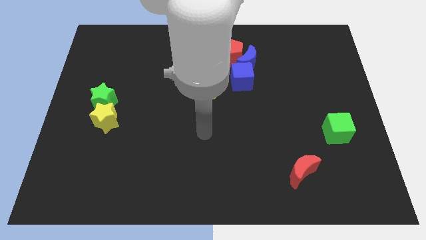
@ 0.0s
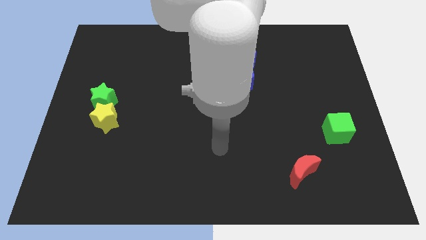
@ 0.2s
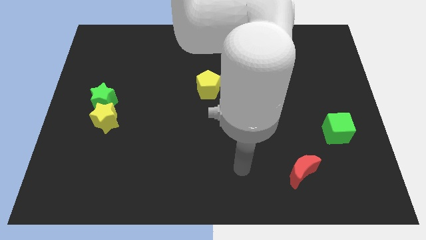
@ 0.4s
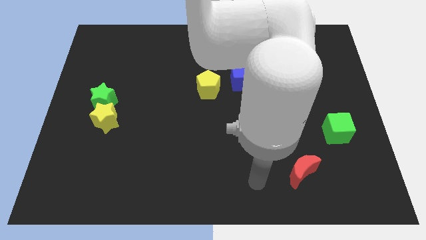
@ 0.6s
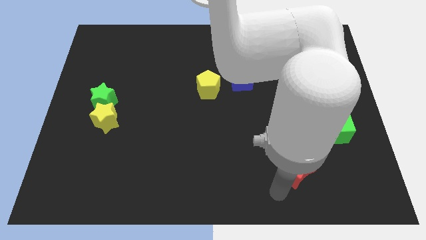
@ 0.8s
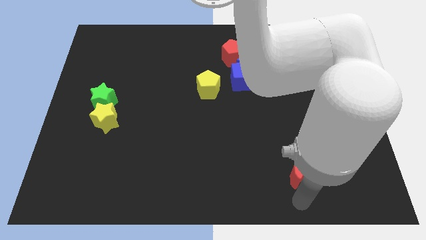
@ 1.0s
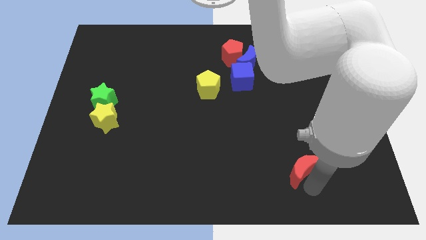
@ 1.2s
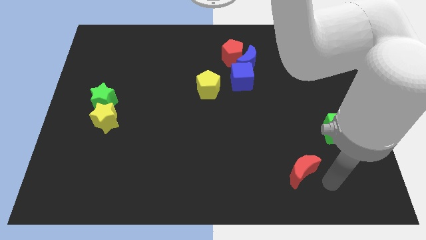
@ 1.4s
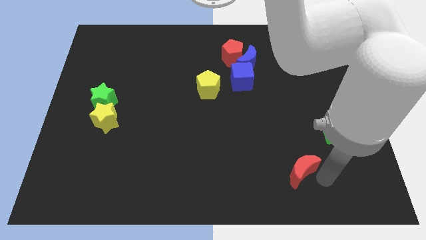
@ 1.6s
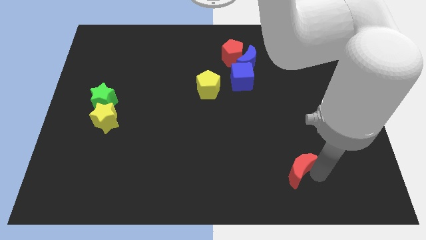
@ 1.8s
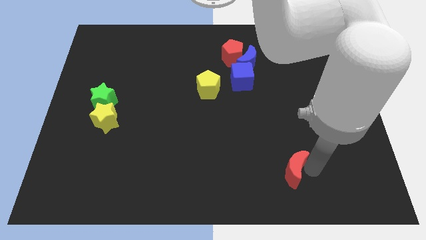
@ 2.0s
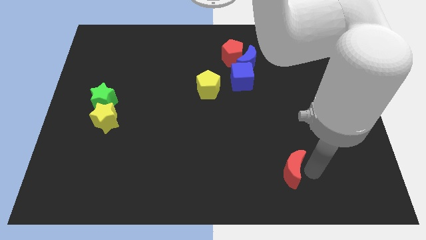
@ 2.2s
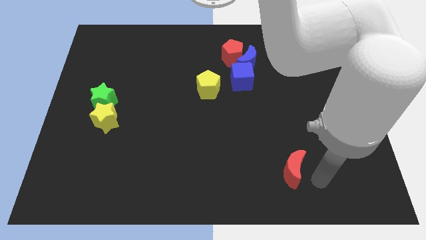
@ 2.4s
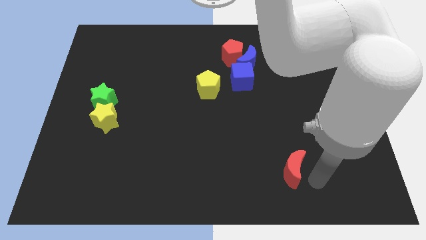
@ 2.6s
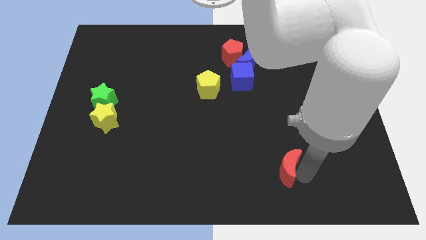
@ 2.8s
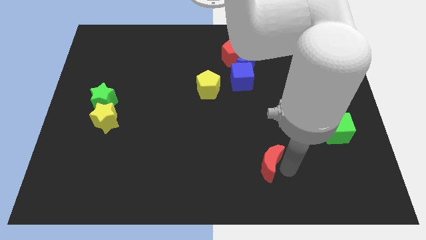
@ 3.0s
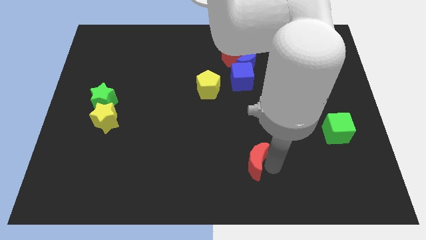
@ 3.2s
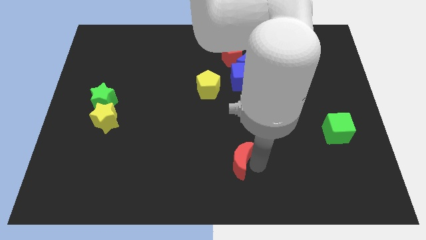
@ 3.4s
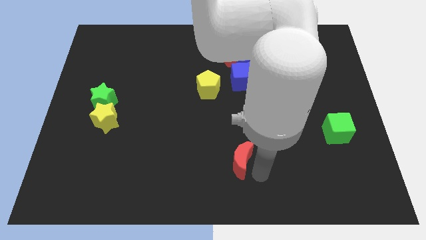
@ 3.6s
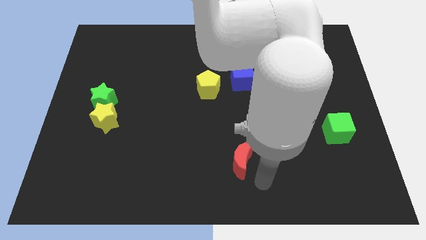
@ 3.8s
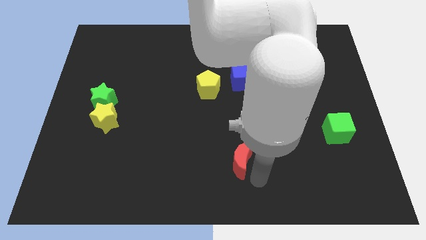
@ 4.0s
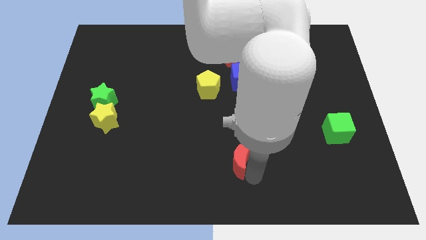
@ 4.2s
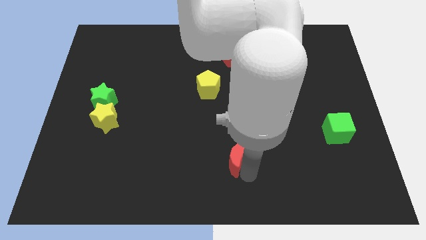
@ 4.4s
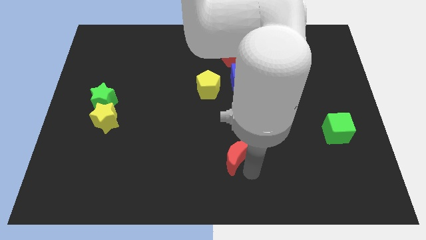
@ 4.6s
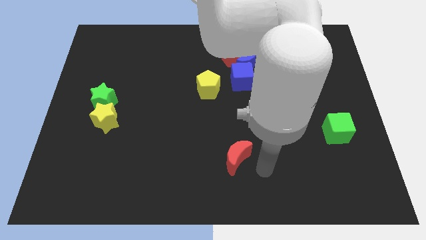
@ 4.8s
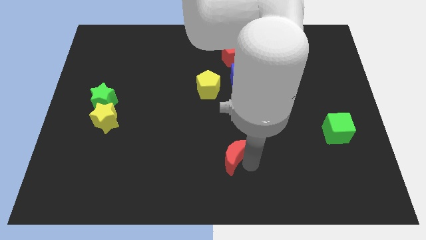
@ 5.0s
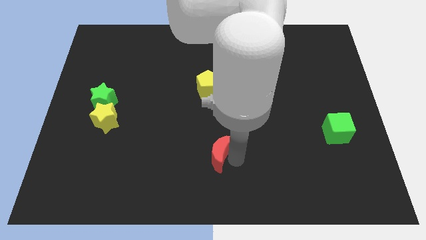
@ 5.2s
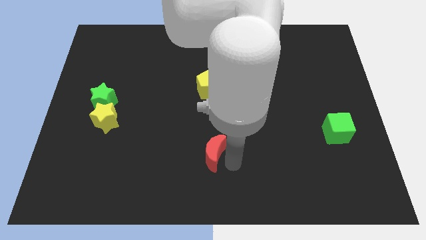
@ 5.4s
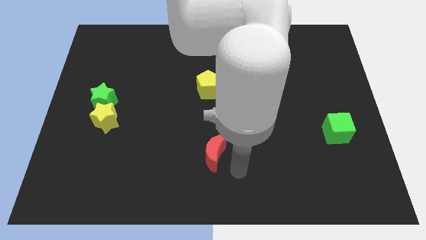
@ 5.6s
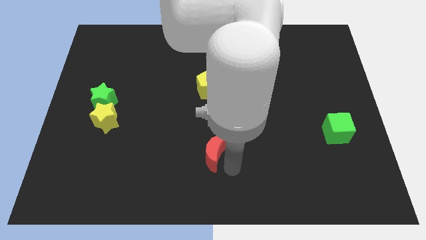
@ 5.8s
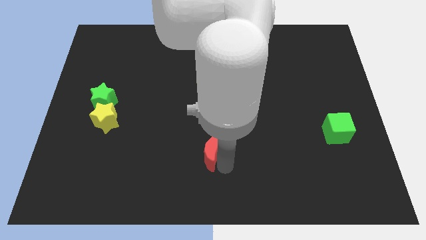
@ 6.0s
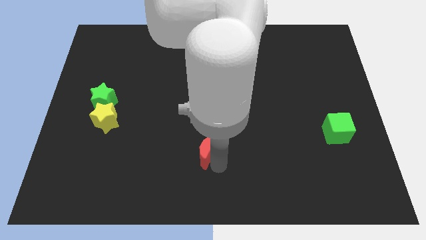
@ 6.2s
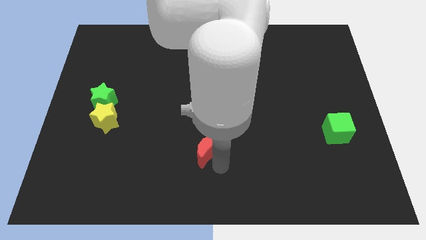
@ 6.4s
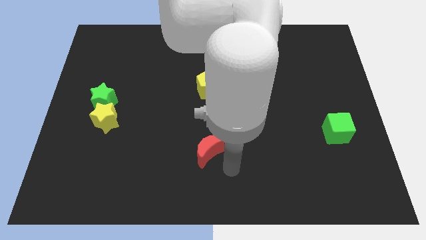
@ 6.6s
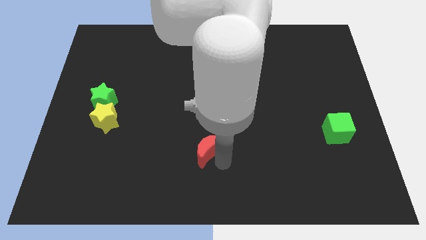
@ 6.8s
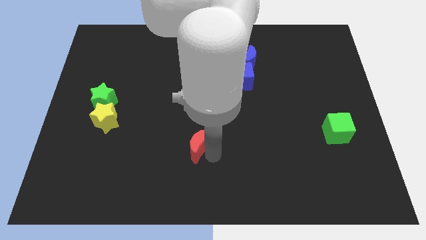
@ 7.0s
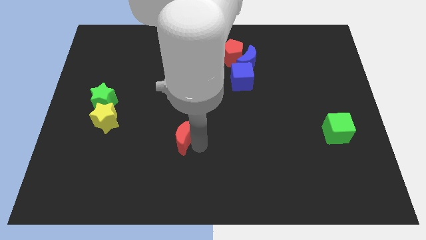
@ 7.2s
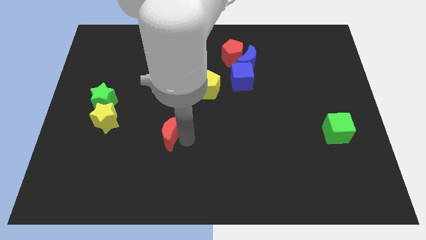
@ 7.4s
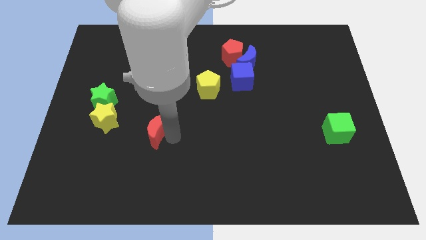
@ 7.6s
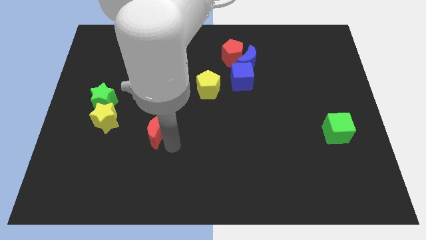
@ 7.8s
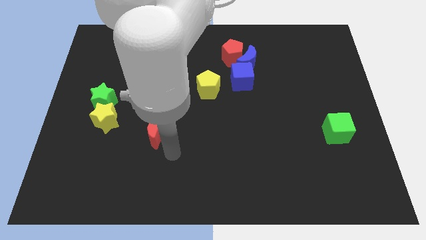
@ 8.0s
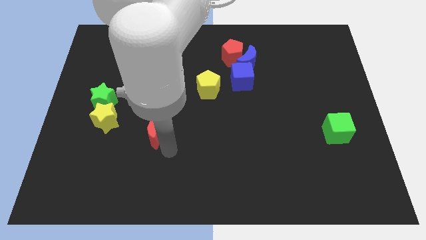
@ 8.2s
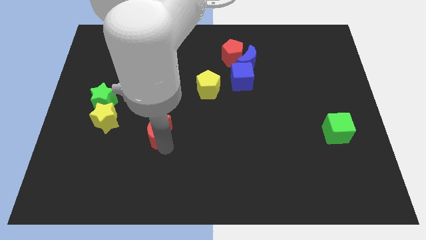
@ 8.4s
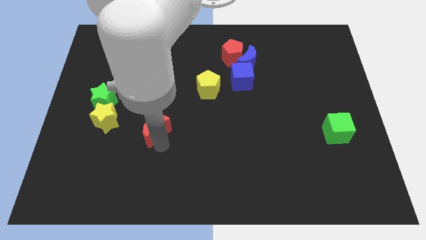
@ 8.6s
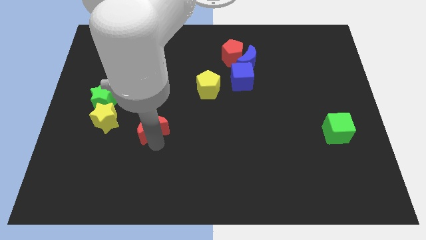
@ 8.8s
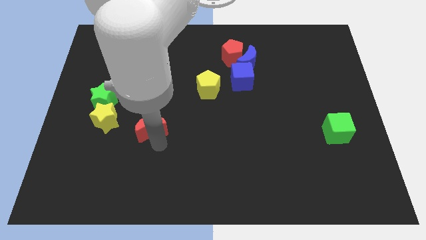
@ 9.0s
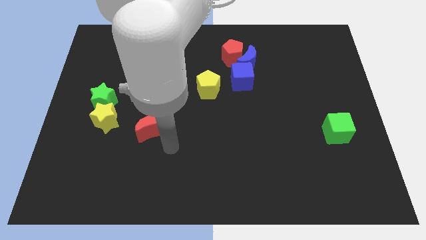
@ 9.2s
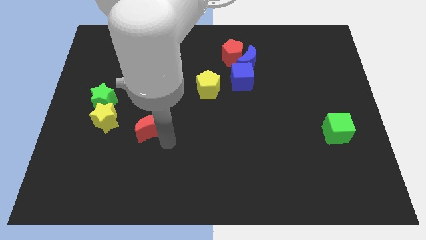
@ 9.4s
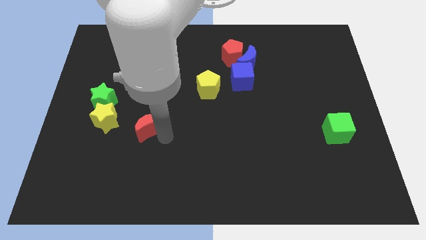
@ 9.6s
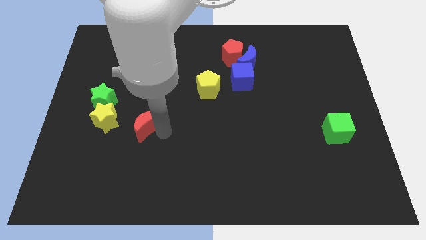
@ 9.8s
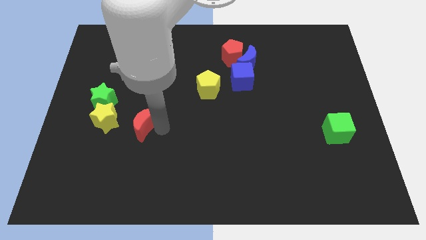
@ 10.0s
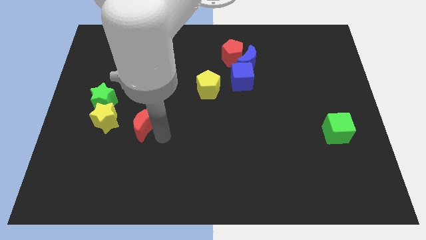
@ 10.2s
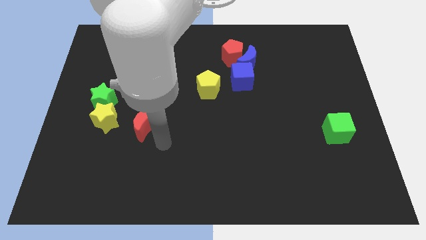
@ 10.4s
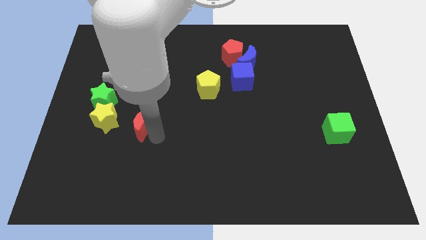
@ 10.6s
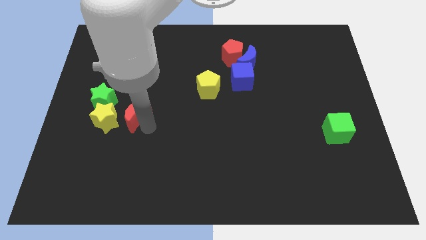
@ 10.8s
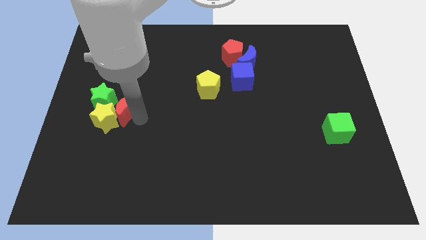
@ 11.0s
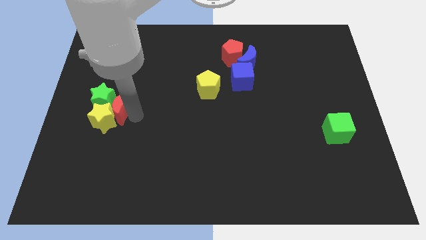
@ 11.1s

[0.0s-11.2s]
slide the red moon to the green star
